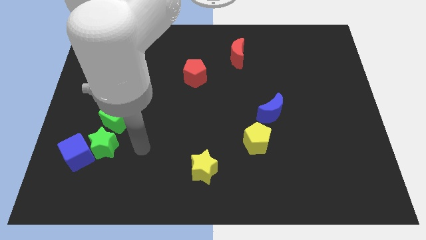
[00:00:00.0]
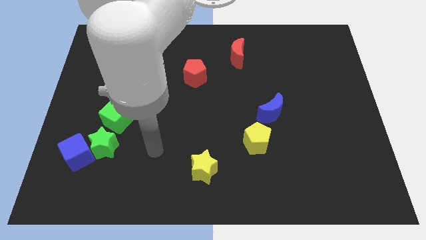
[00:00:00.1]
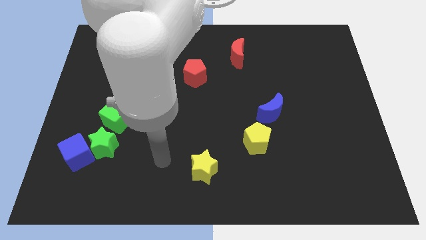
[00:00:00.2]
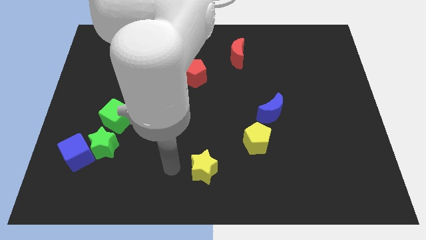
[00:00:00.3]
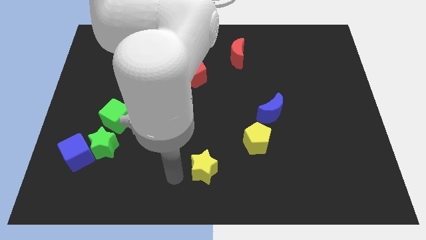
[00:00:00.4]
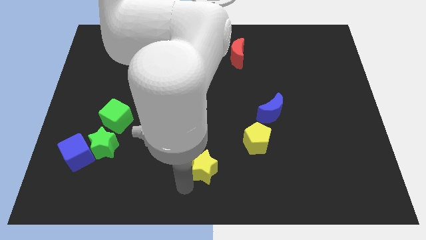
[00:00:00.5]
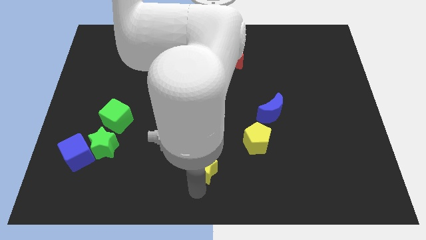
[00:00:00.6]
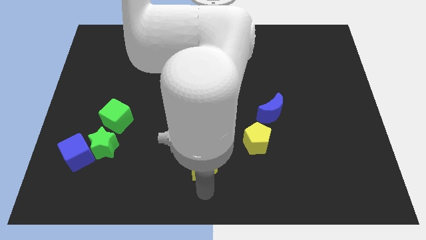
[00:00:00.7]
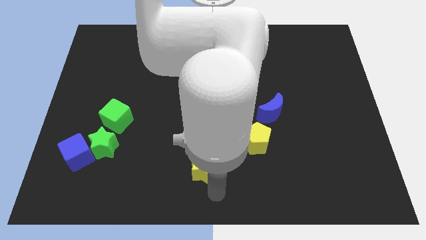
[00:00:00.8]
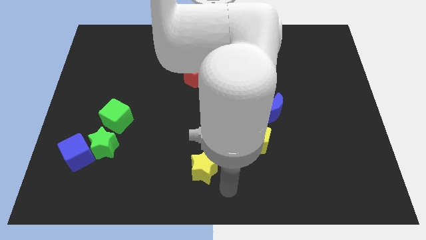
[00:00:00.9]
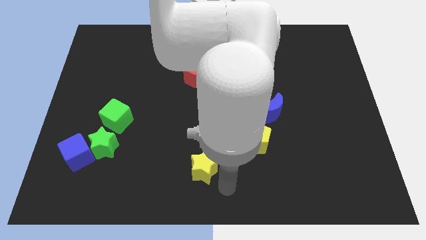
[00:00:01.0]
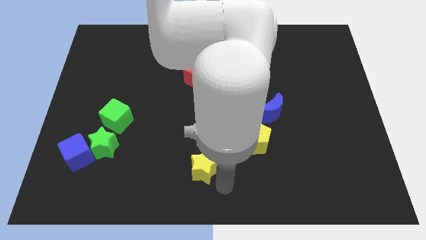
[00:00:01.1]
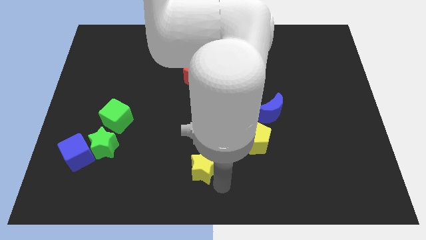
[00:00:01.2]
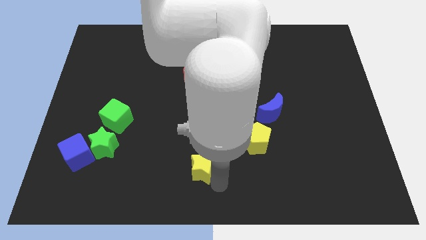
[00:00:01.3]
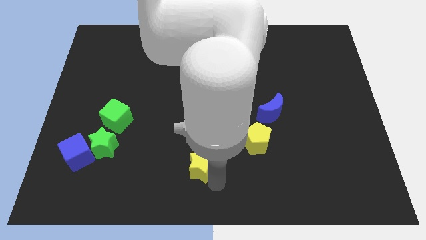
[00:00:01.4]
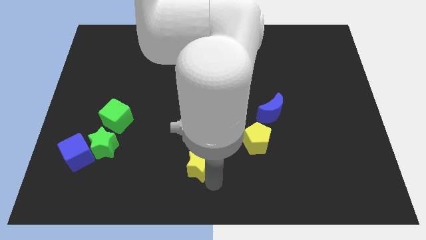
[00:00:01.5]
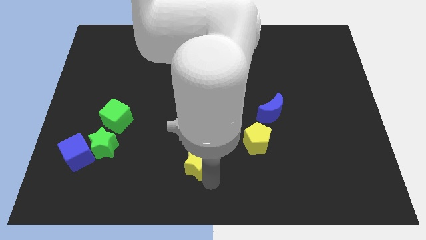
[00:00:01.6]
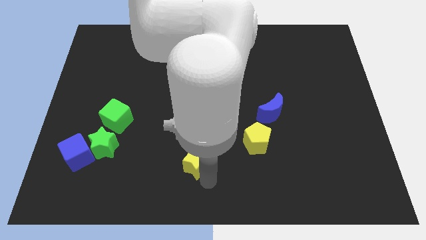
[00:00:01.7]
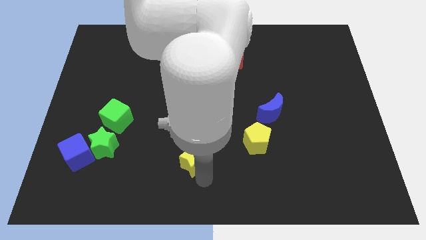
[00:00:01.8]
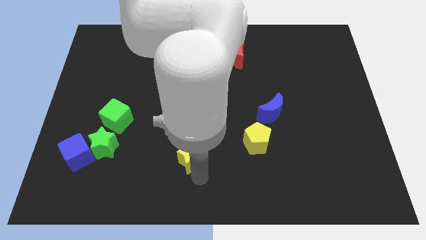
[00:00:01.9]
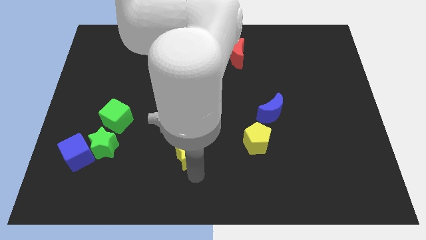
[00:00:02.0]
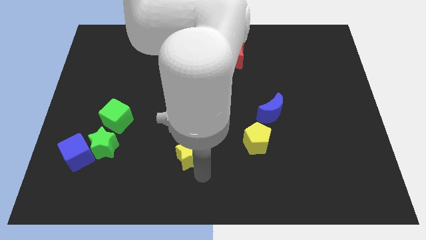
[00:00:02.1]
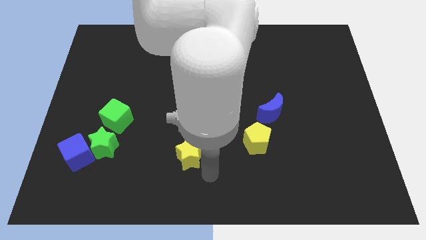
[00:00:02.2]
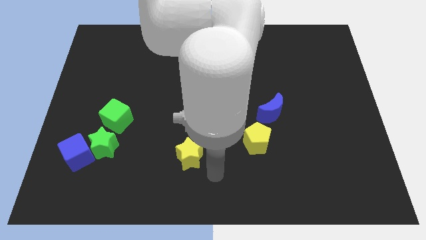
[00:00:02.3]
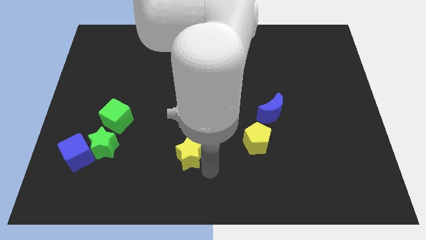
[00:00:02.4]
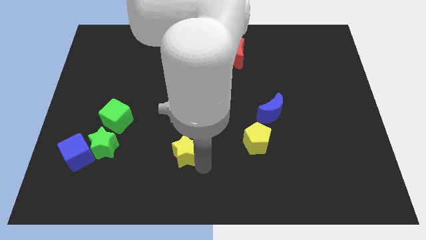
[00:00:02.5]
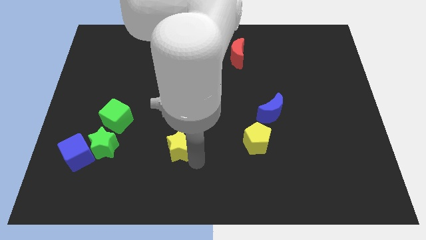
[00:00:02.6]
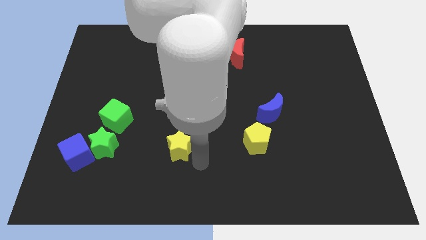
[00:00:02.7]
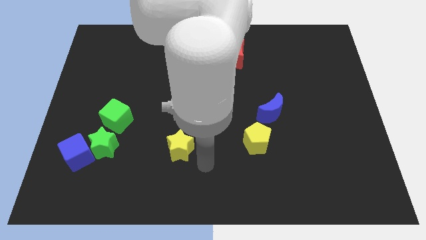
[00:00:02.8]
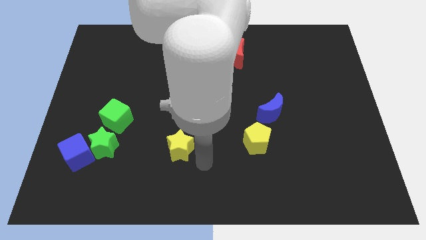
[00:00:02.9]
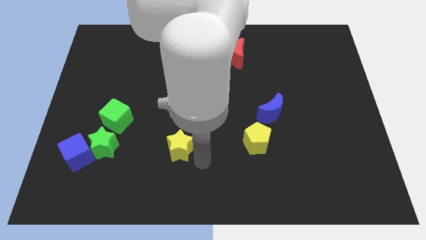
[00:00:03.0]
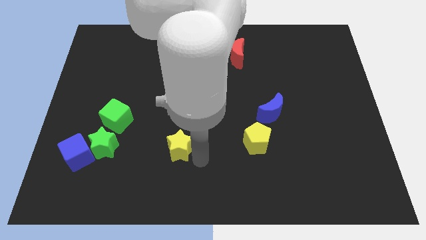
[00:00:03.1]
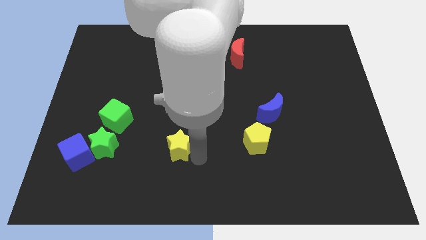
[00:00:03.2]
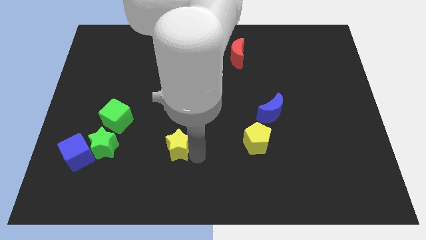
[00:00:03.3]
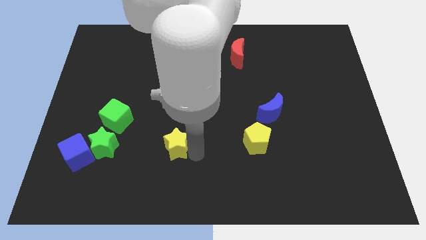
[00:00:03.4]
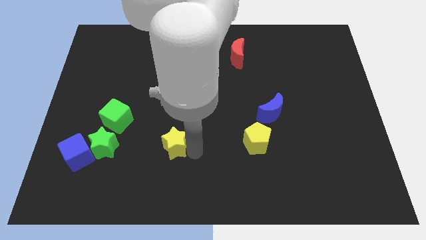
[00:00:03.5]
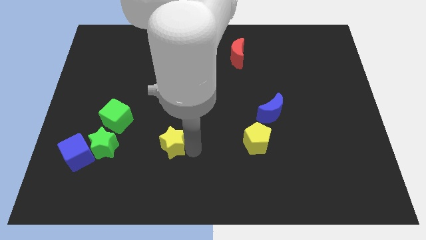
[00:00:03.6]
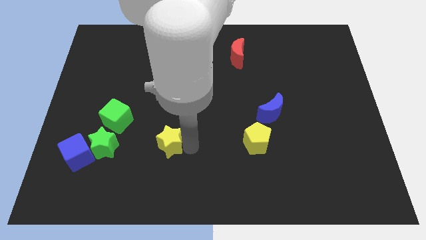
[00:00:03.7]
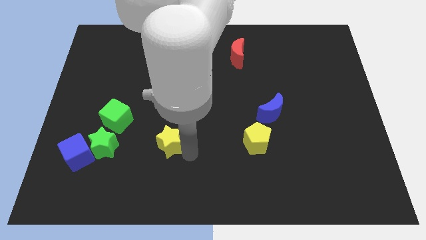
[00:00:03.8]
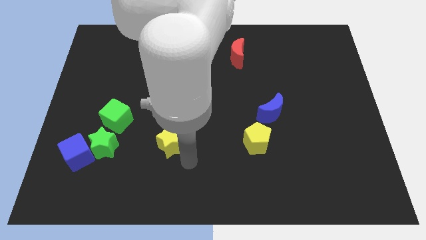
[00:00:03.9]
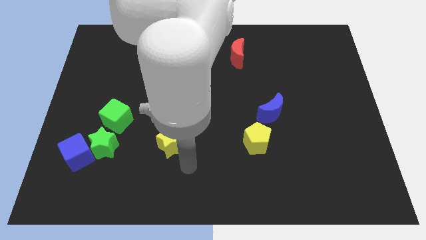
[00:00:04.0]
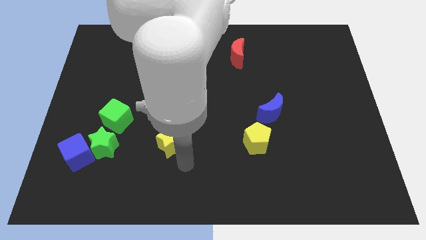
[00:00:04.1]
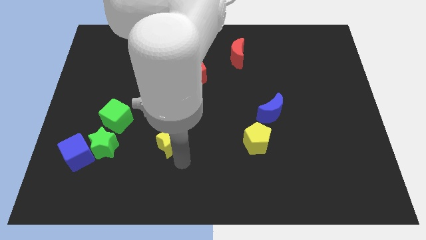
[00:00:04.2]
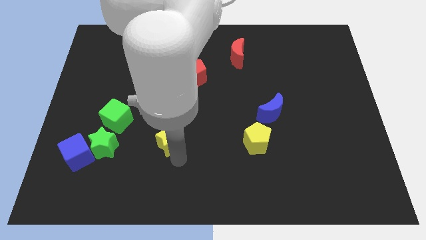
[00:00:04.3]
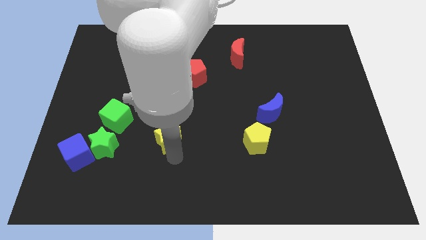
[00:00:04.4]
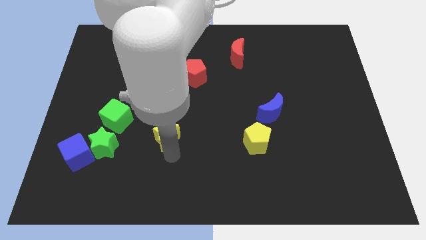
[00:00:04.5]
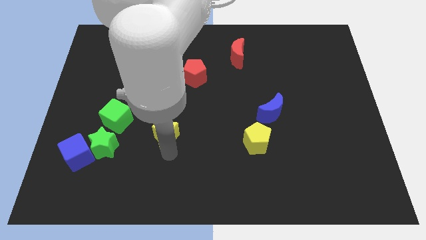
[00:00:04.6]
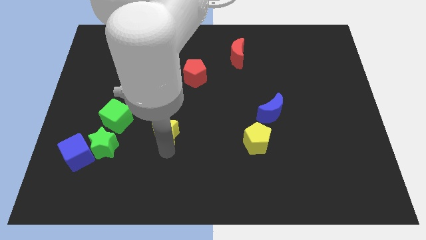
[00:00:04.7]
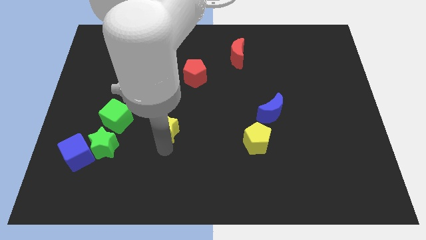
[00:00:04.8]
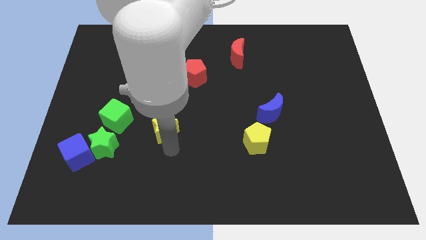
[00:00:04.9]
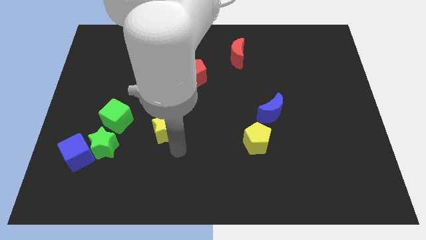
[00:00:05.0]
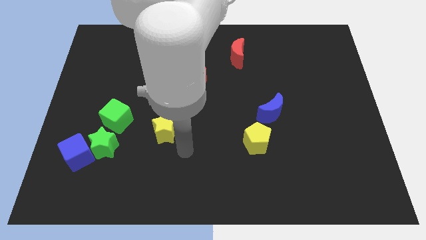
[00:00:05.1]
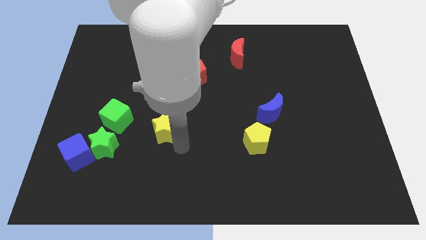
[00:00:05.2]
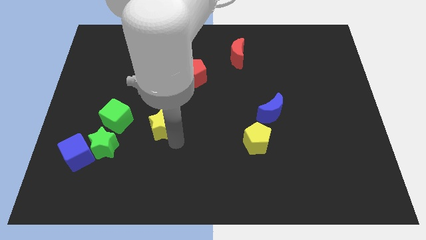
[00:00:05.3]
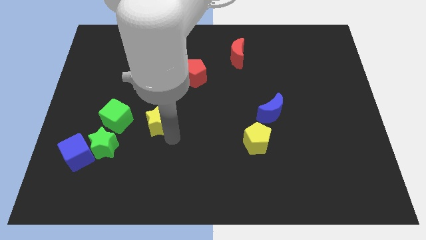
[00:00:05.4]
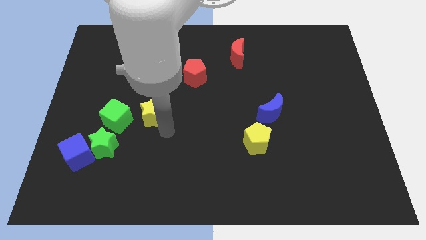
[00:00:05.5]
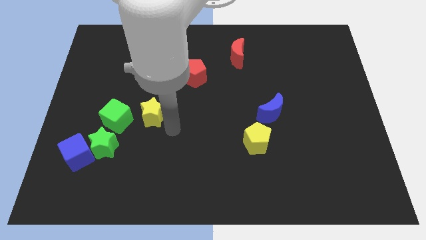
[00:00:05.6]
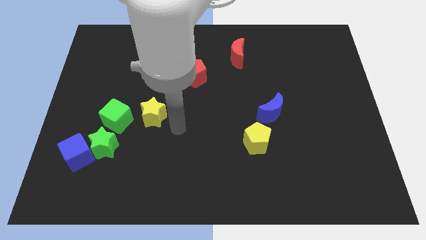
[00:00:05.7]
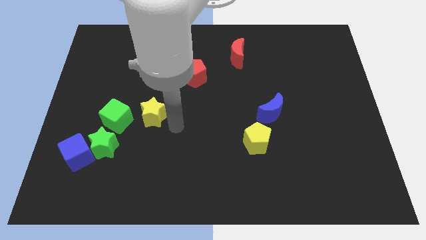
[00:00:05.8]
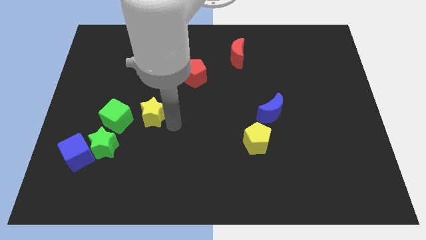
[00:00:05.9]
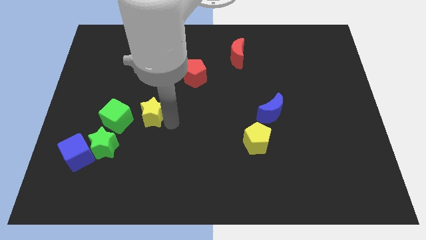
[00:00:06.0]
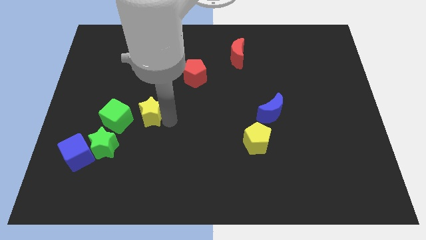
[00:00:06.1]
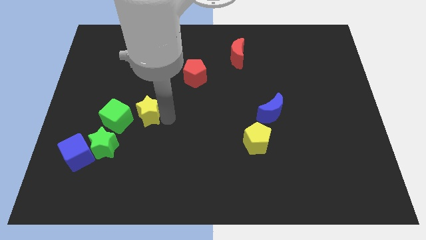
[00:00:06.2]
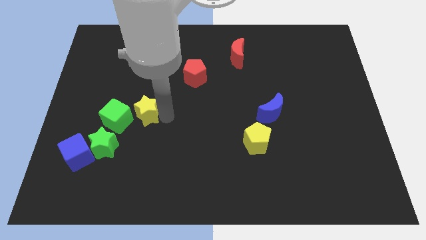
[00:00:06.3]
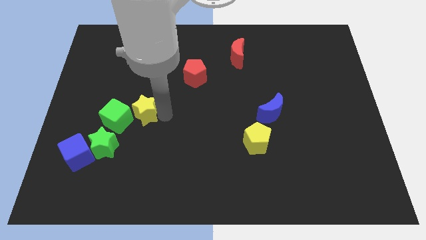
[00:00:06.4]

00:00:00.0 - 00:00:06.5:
push the yellow star up and then left

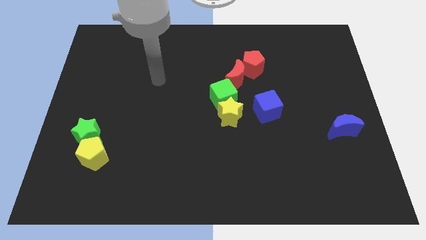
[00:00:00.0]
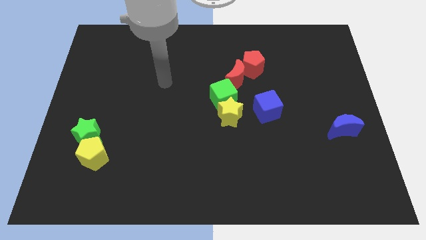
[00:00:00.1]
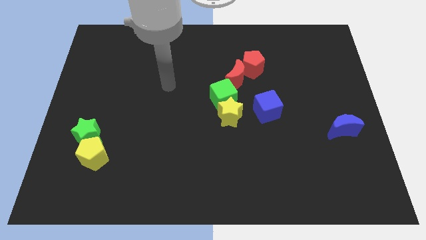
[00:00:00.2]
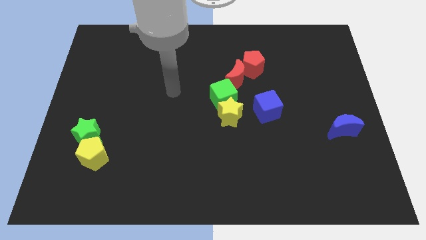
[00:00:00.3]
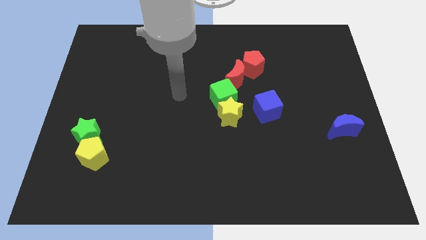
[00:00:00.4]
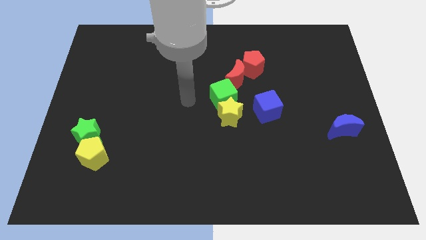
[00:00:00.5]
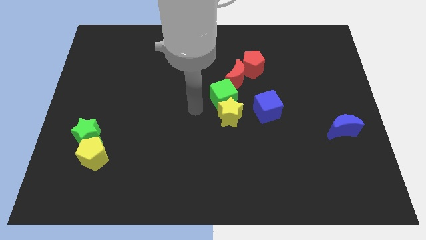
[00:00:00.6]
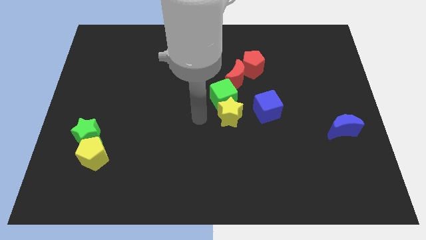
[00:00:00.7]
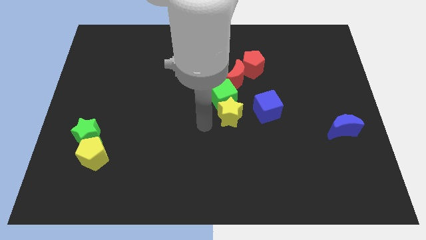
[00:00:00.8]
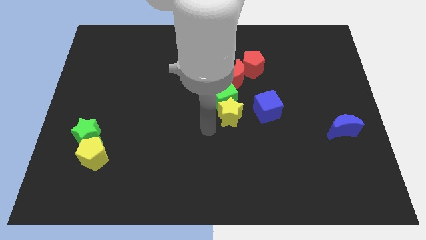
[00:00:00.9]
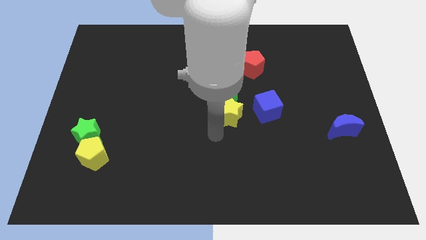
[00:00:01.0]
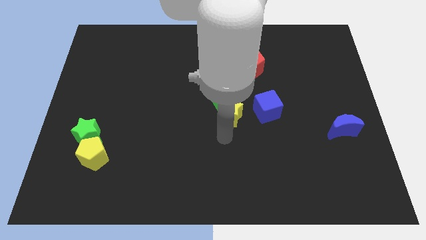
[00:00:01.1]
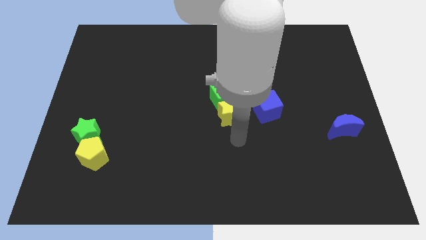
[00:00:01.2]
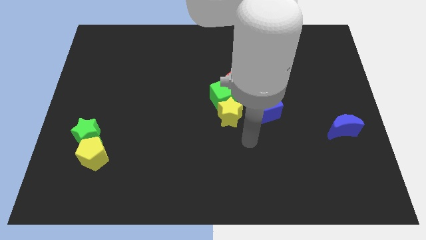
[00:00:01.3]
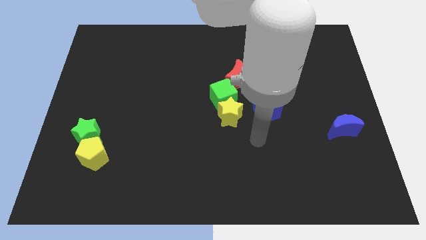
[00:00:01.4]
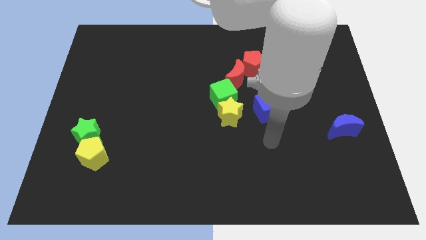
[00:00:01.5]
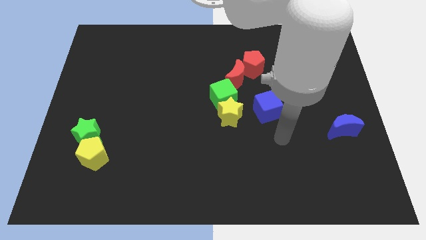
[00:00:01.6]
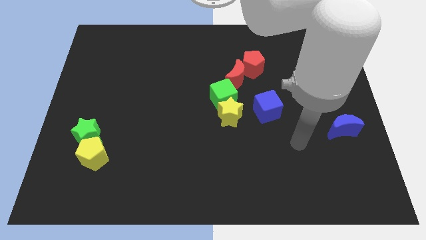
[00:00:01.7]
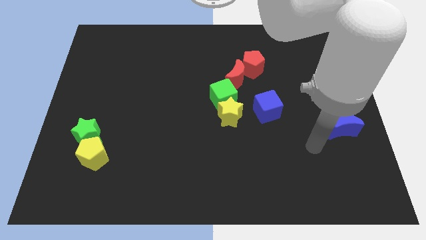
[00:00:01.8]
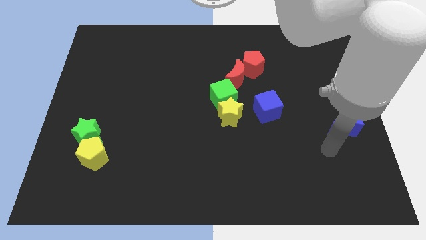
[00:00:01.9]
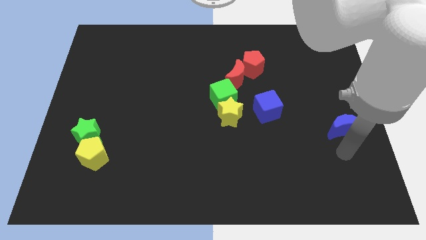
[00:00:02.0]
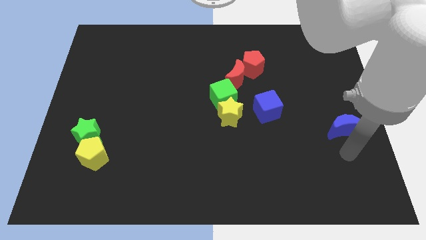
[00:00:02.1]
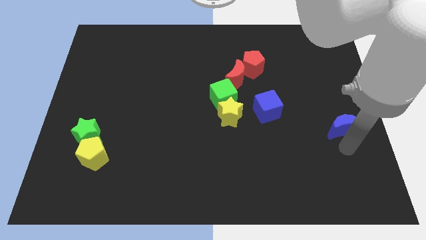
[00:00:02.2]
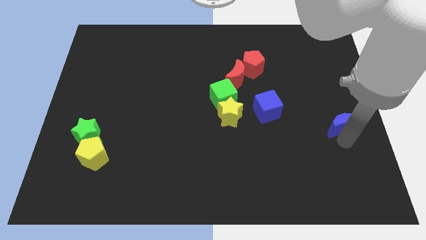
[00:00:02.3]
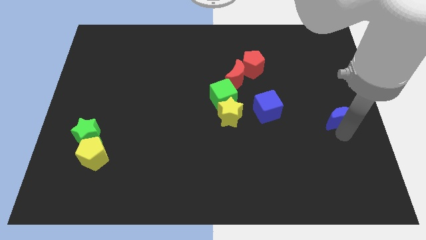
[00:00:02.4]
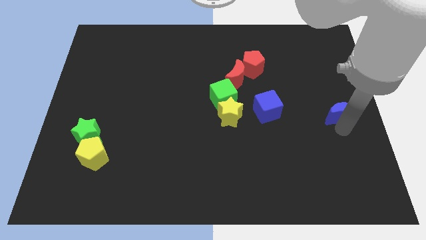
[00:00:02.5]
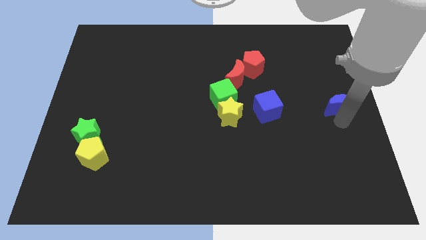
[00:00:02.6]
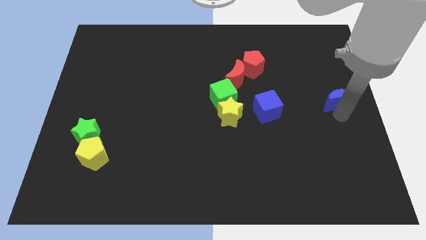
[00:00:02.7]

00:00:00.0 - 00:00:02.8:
slightly move the blue moon upwards
